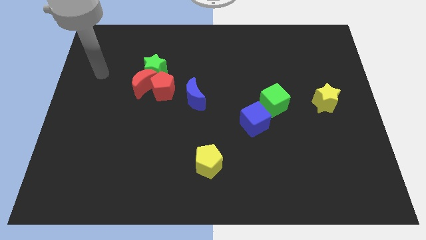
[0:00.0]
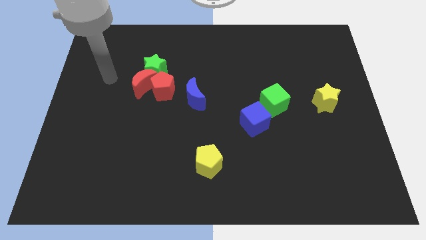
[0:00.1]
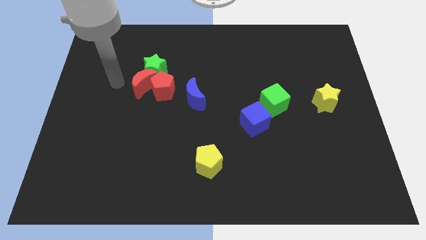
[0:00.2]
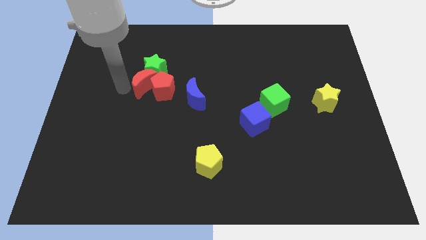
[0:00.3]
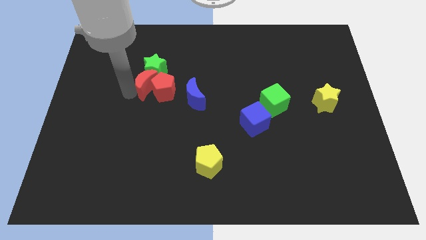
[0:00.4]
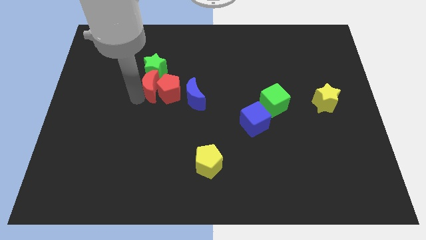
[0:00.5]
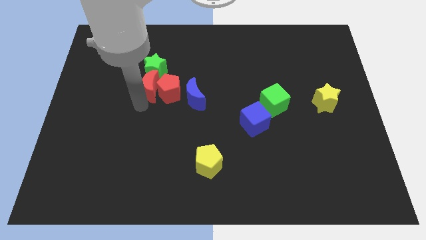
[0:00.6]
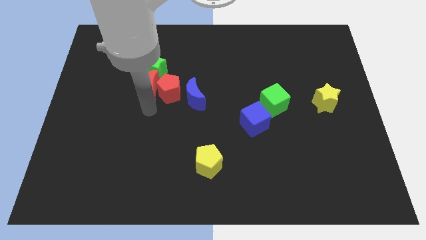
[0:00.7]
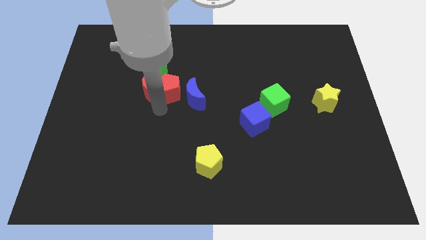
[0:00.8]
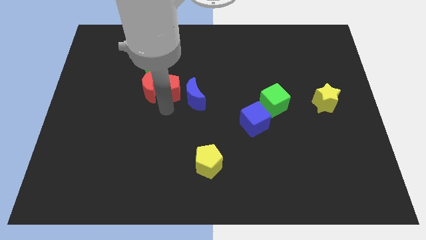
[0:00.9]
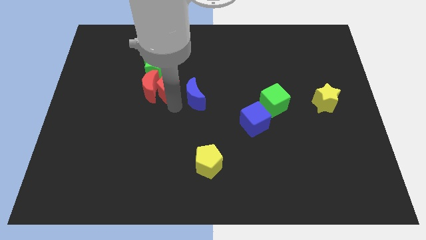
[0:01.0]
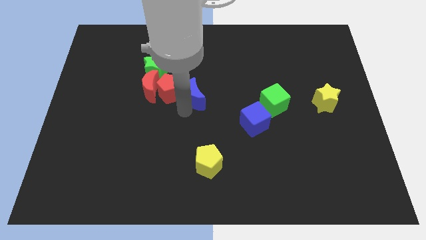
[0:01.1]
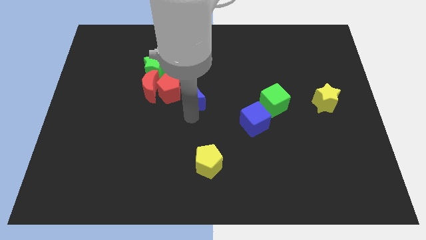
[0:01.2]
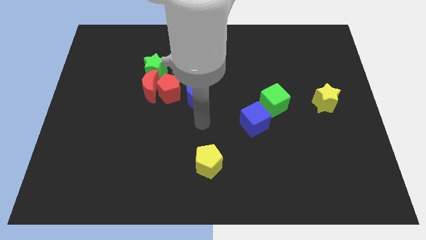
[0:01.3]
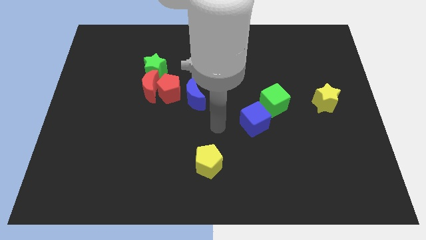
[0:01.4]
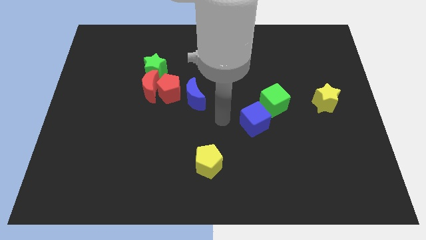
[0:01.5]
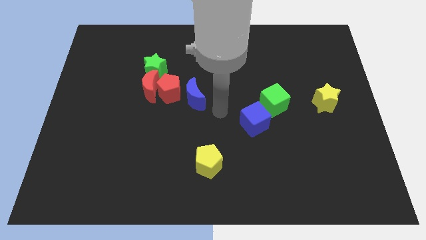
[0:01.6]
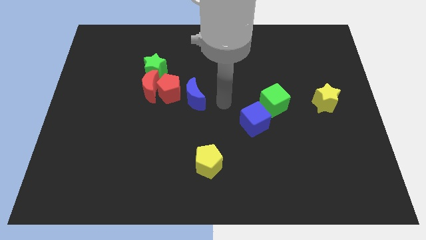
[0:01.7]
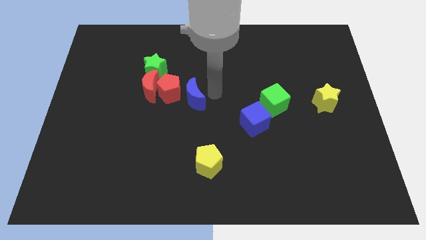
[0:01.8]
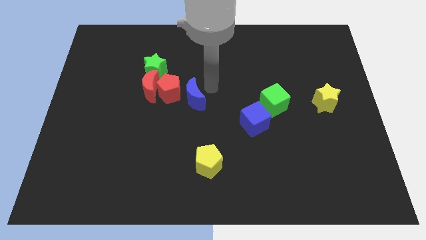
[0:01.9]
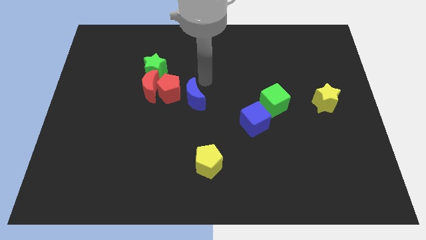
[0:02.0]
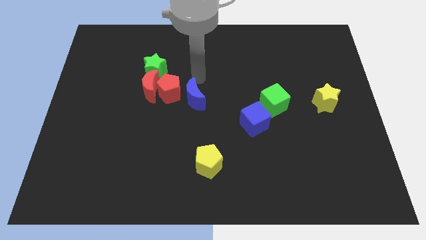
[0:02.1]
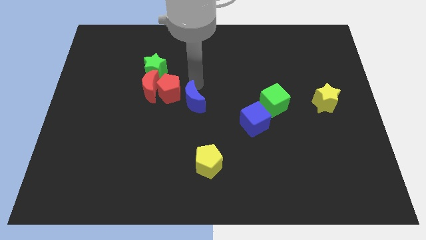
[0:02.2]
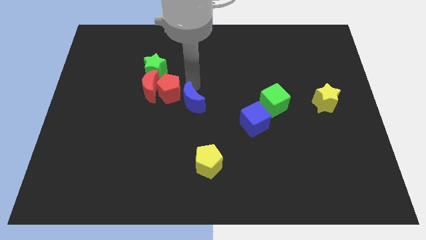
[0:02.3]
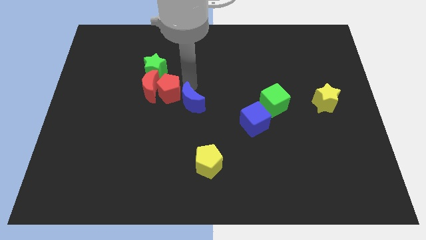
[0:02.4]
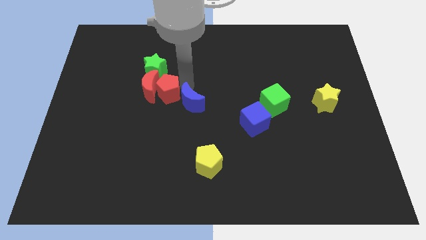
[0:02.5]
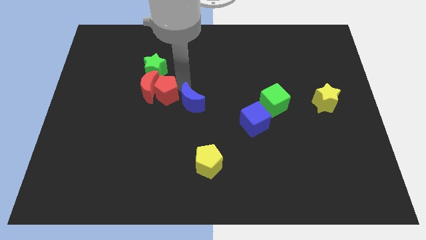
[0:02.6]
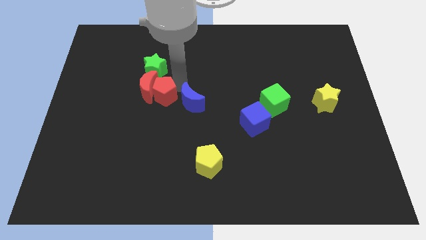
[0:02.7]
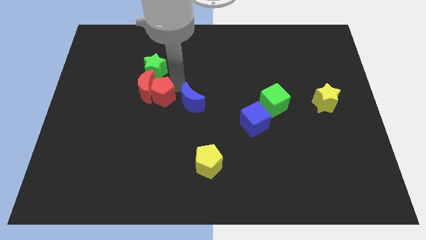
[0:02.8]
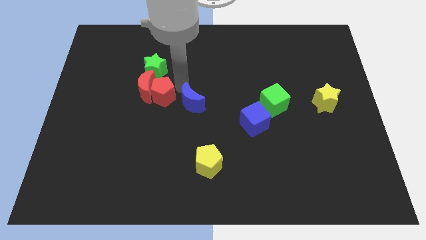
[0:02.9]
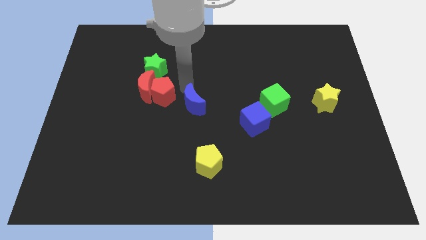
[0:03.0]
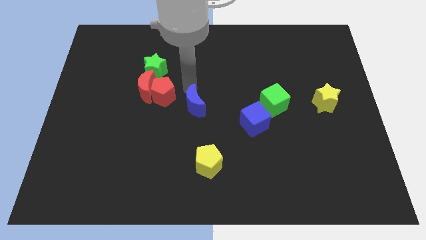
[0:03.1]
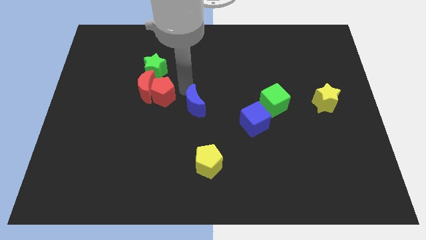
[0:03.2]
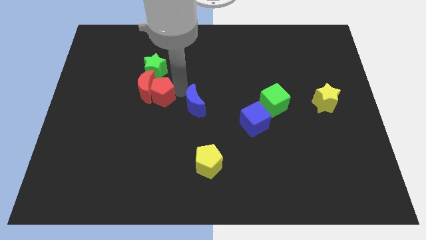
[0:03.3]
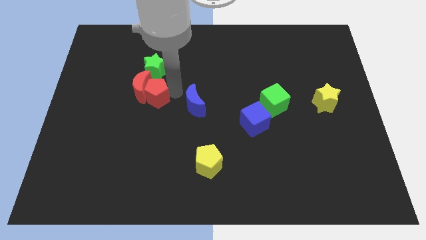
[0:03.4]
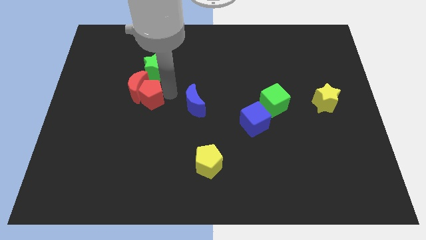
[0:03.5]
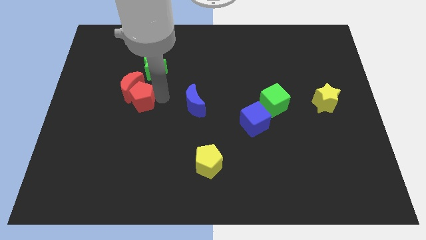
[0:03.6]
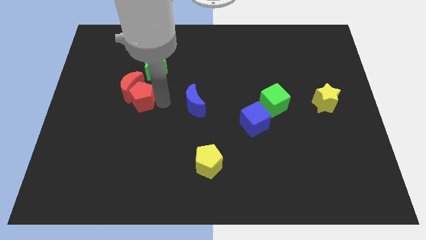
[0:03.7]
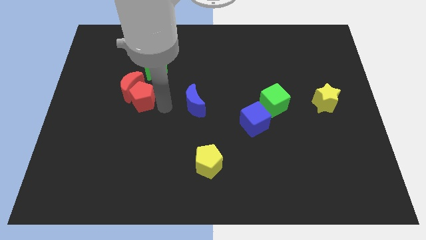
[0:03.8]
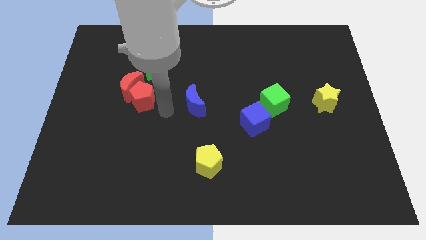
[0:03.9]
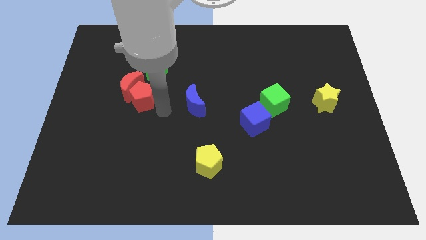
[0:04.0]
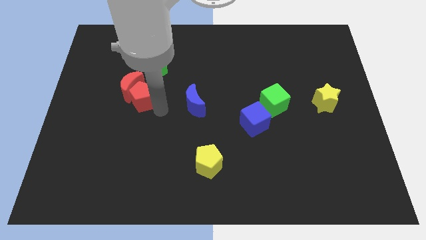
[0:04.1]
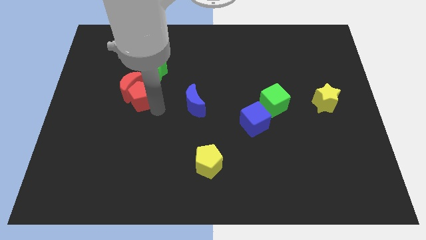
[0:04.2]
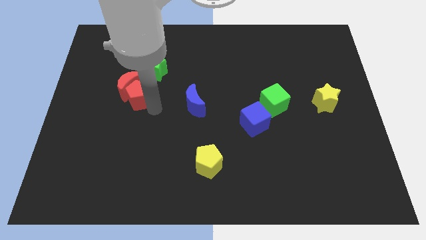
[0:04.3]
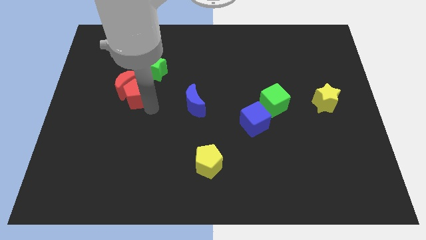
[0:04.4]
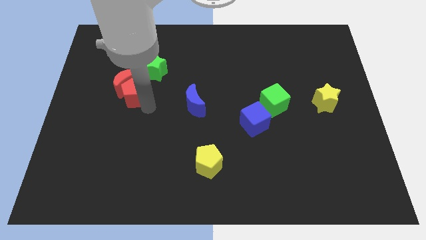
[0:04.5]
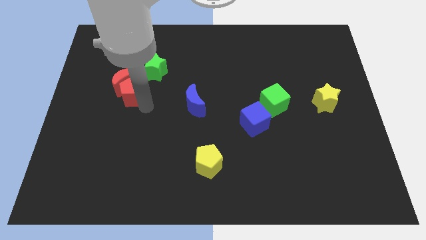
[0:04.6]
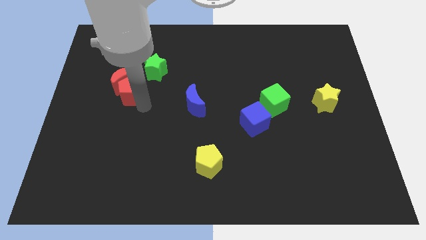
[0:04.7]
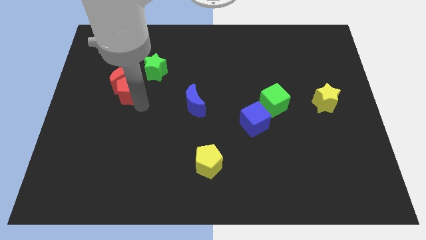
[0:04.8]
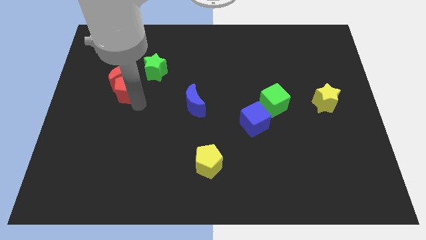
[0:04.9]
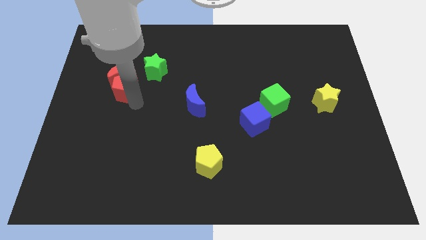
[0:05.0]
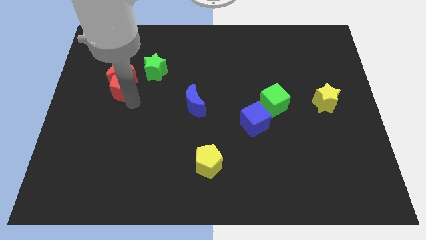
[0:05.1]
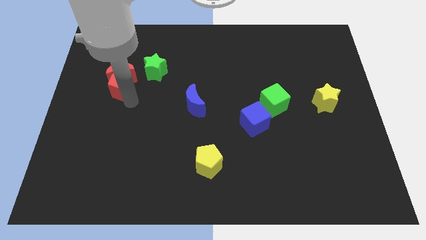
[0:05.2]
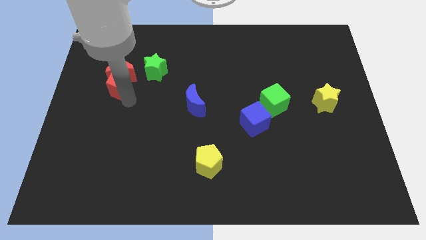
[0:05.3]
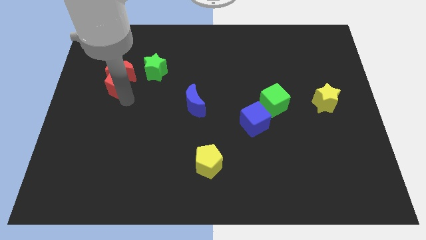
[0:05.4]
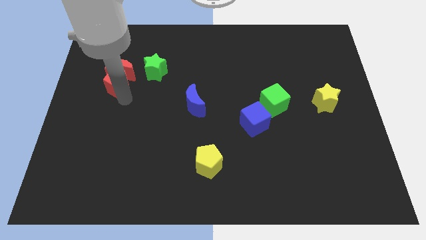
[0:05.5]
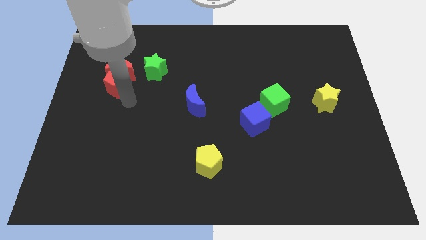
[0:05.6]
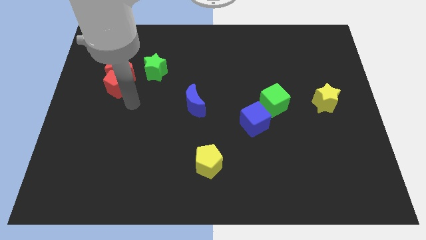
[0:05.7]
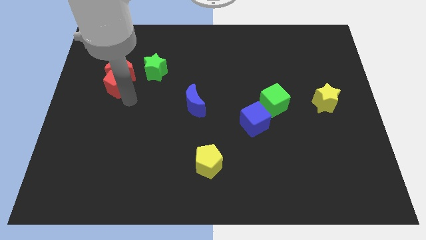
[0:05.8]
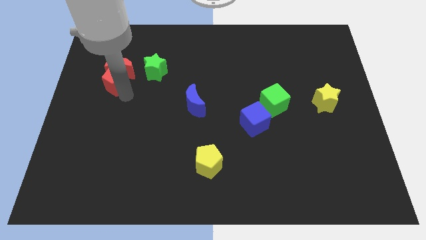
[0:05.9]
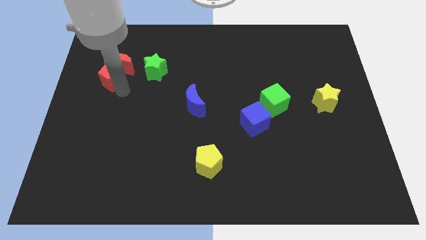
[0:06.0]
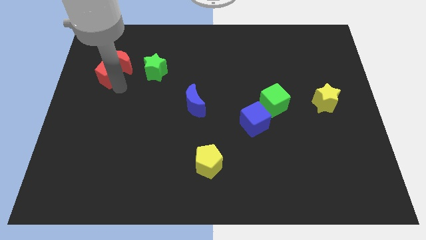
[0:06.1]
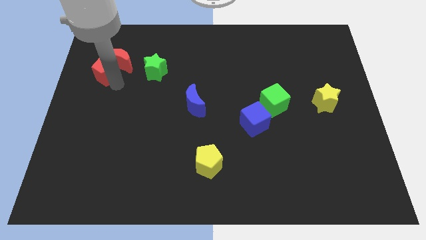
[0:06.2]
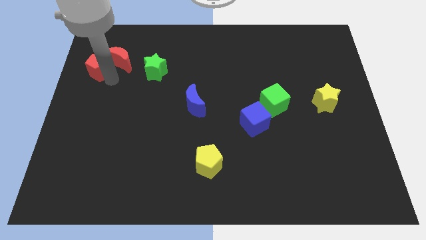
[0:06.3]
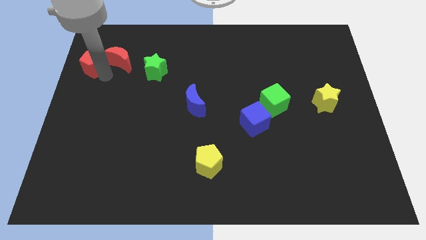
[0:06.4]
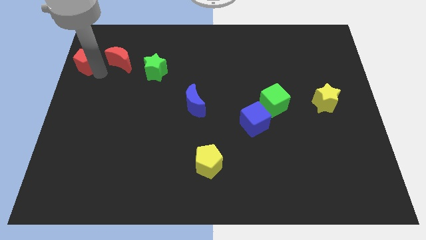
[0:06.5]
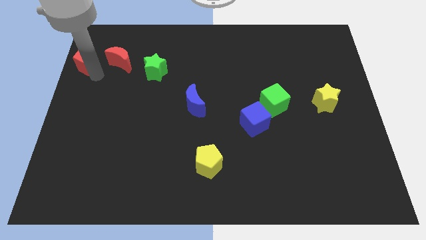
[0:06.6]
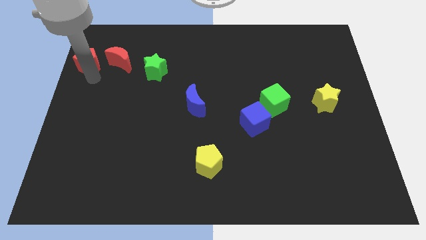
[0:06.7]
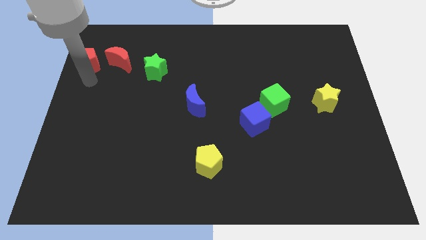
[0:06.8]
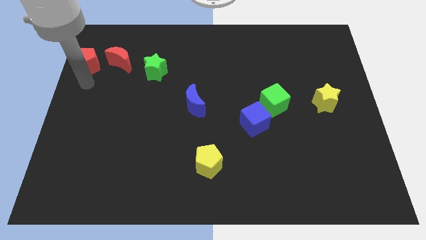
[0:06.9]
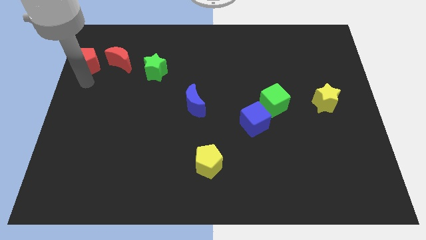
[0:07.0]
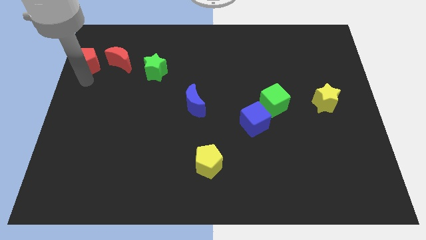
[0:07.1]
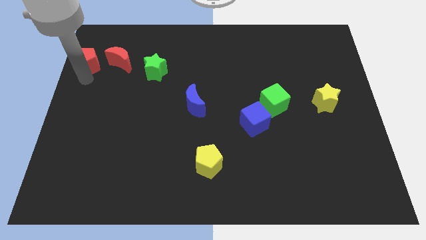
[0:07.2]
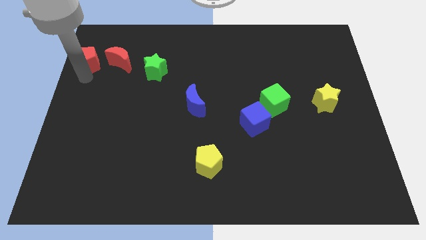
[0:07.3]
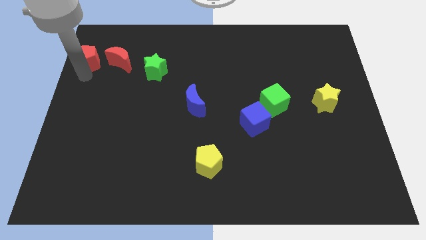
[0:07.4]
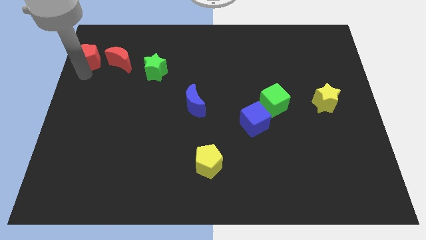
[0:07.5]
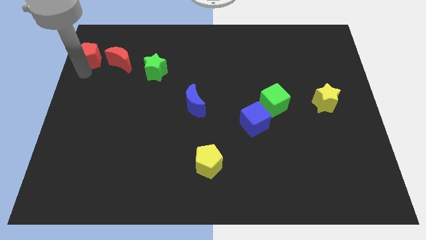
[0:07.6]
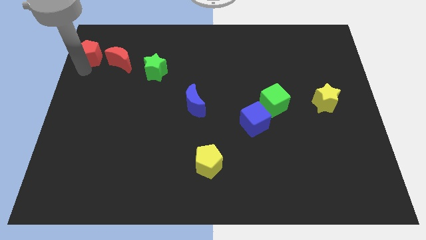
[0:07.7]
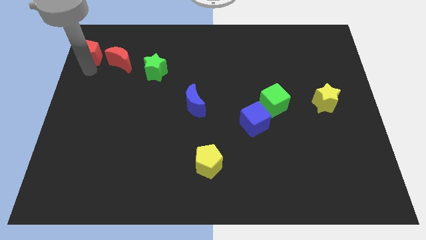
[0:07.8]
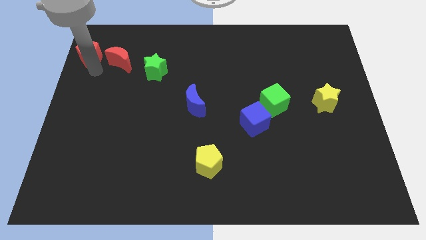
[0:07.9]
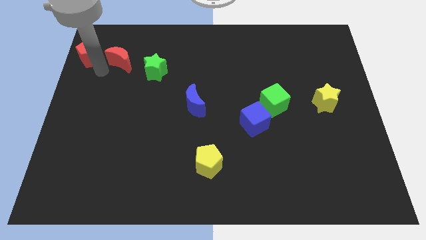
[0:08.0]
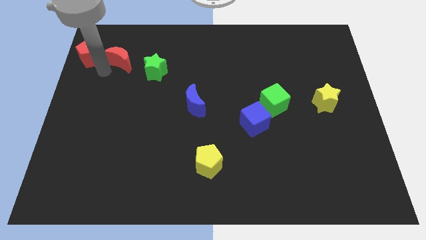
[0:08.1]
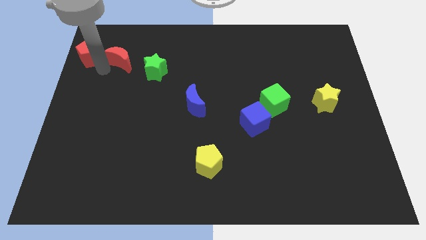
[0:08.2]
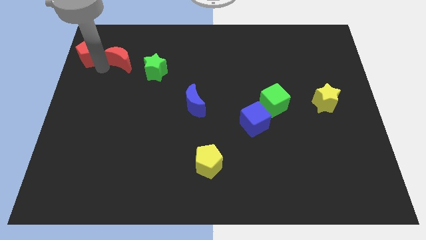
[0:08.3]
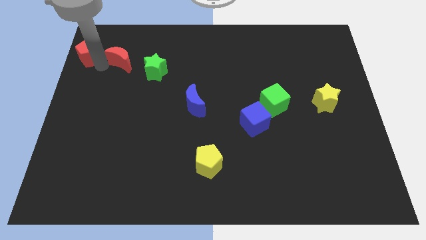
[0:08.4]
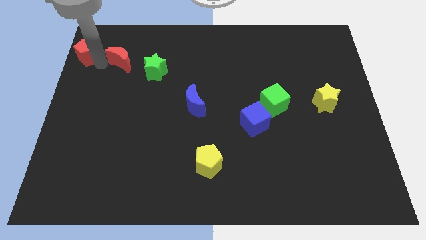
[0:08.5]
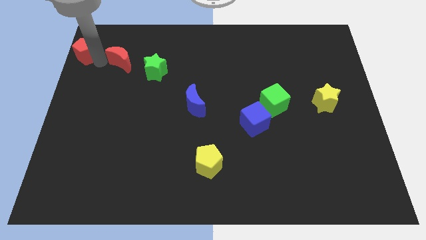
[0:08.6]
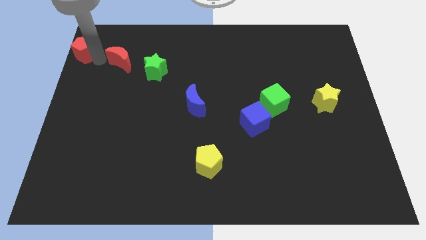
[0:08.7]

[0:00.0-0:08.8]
push the red pentagon to the top left corner
